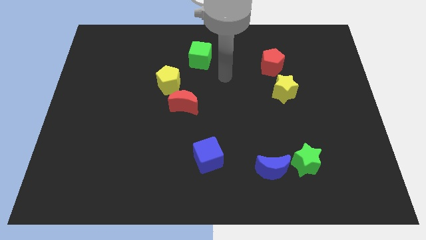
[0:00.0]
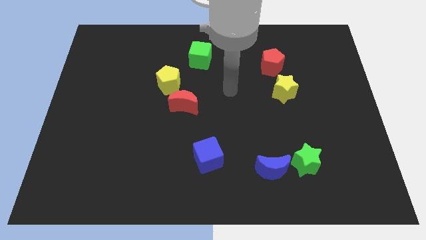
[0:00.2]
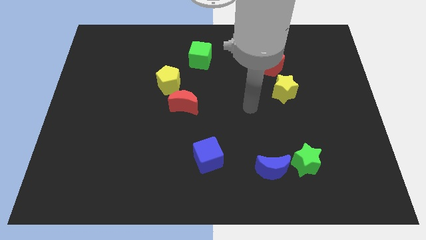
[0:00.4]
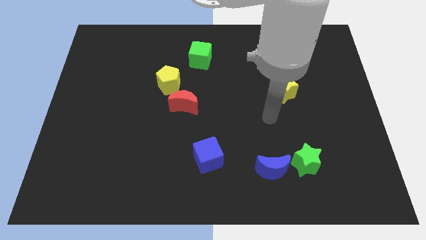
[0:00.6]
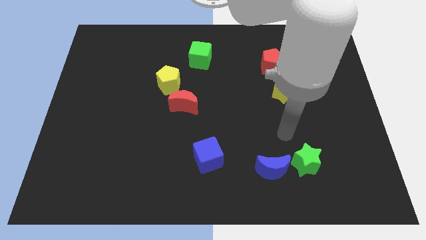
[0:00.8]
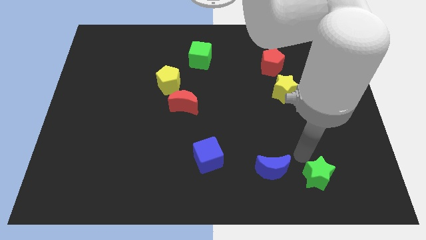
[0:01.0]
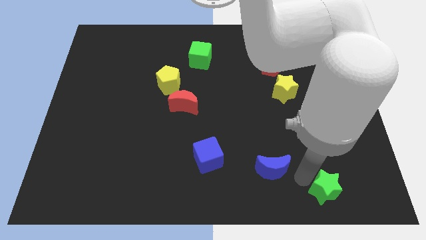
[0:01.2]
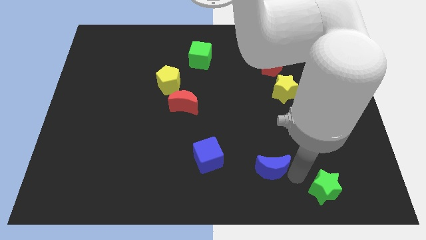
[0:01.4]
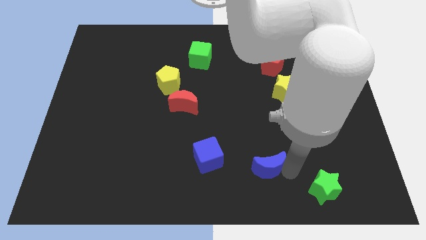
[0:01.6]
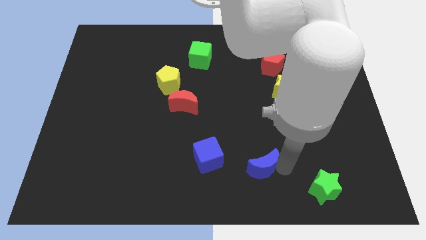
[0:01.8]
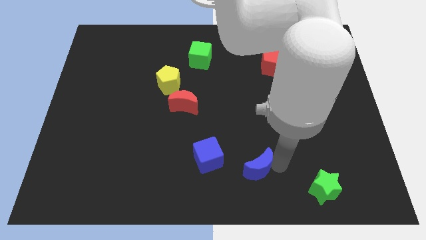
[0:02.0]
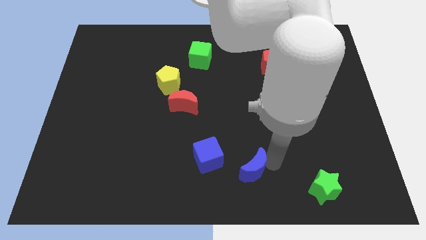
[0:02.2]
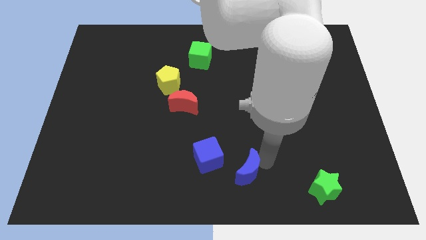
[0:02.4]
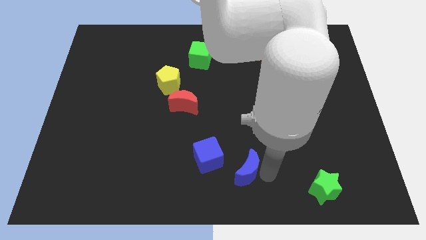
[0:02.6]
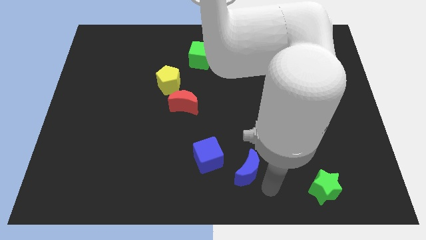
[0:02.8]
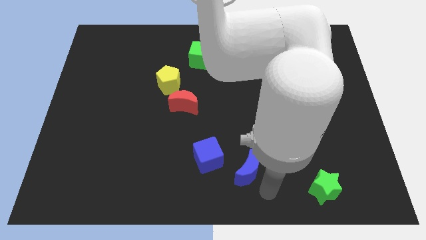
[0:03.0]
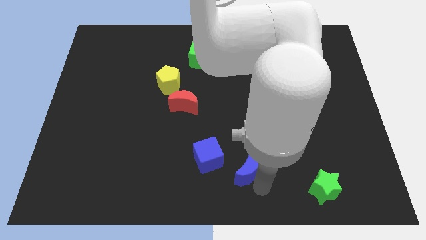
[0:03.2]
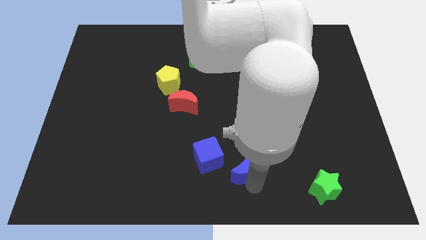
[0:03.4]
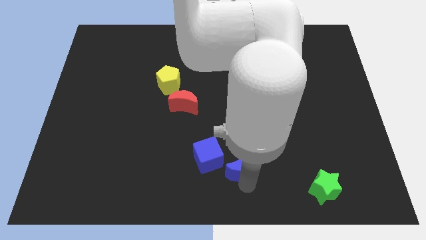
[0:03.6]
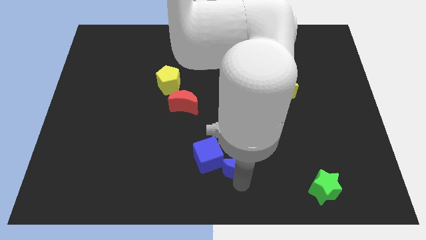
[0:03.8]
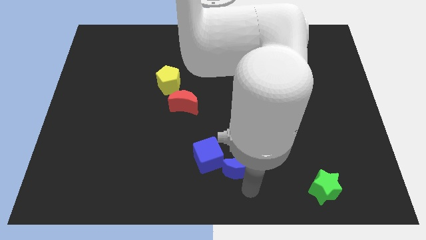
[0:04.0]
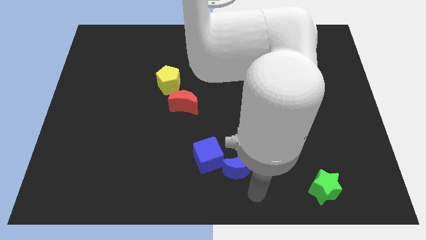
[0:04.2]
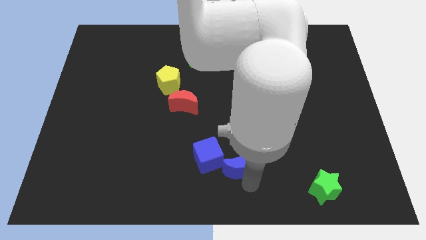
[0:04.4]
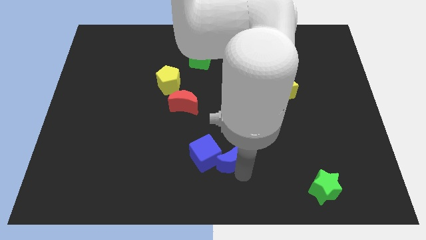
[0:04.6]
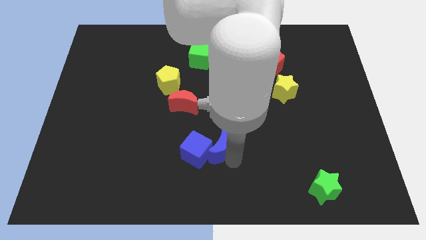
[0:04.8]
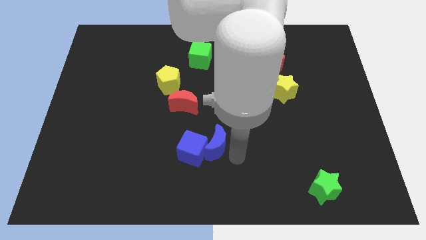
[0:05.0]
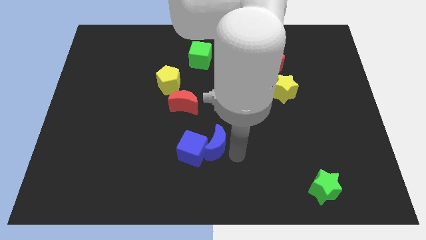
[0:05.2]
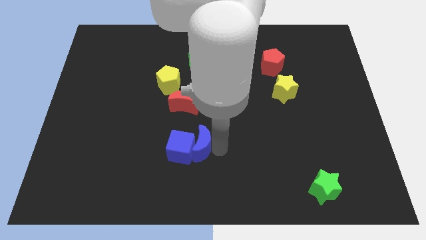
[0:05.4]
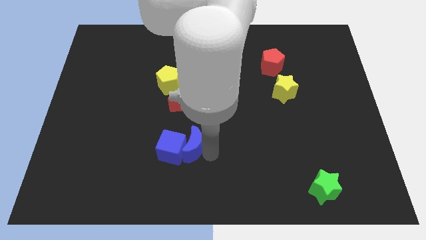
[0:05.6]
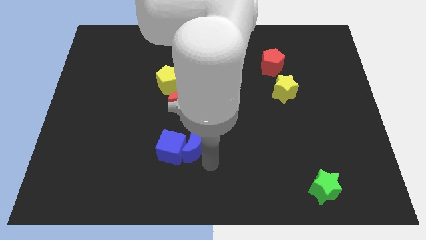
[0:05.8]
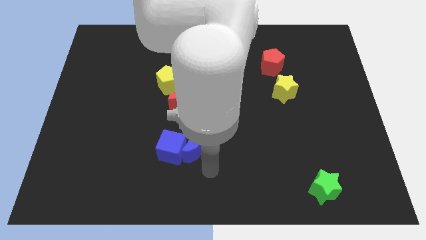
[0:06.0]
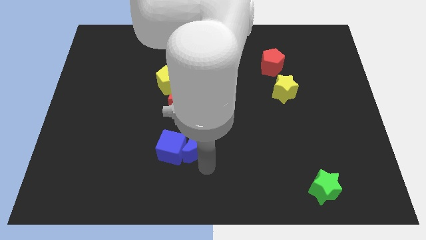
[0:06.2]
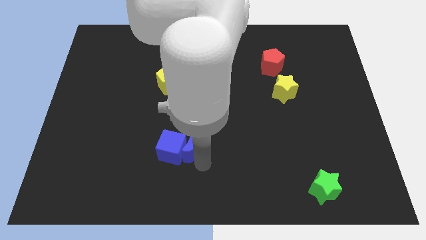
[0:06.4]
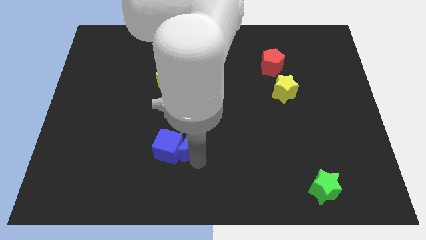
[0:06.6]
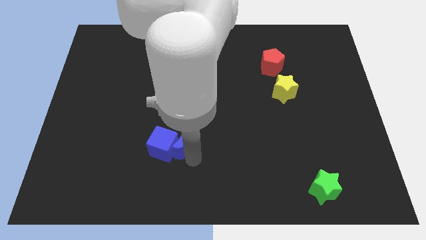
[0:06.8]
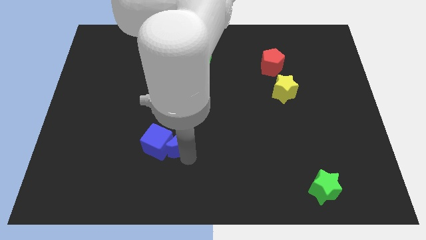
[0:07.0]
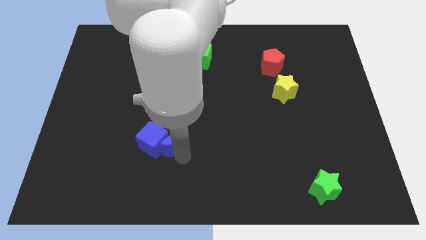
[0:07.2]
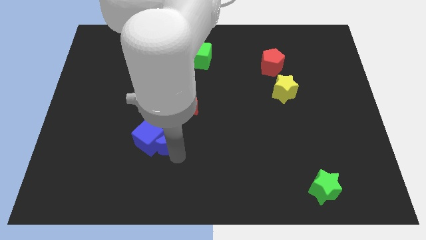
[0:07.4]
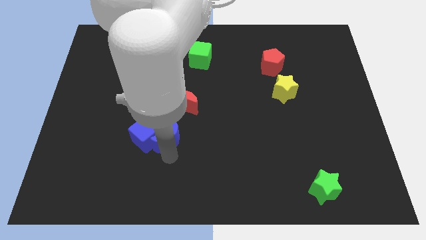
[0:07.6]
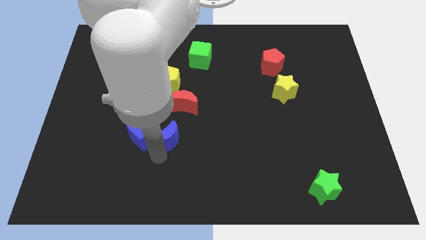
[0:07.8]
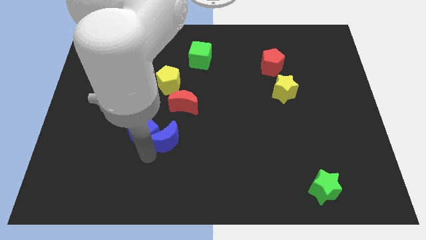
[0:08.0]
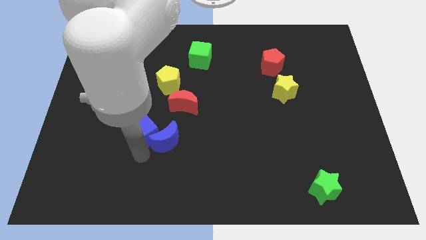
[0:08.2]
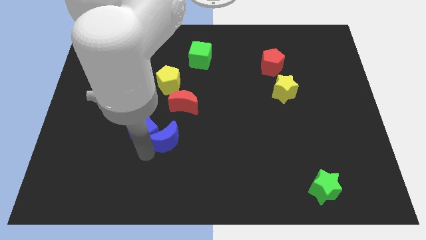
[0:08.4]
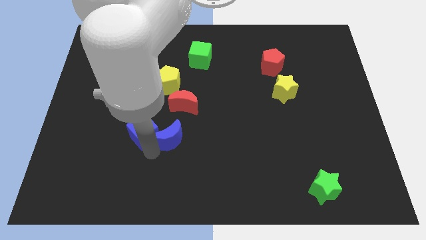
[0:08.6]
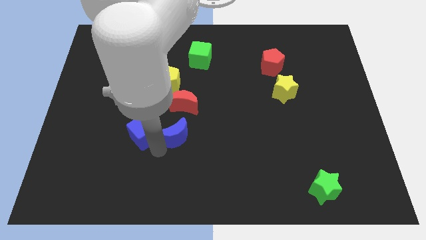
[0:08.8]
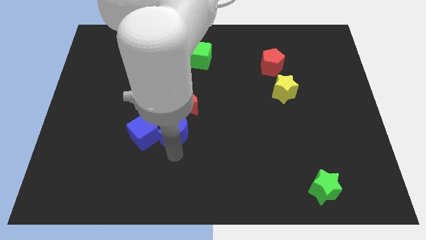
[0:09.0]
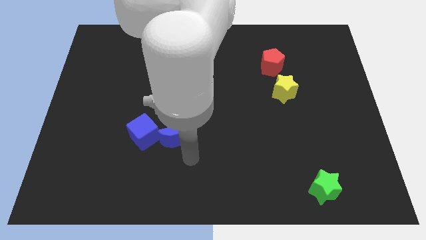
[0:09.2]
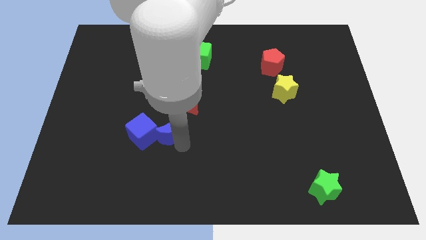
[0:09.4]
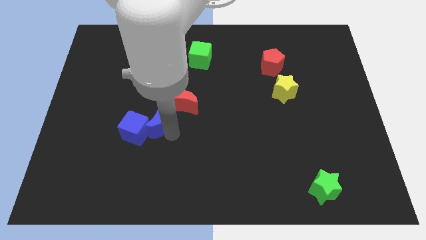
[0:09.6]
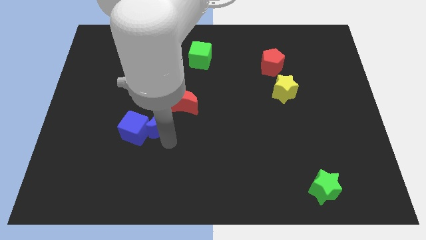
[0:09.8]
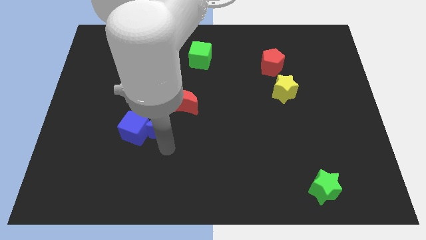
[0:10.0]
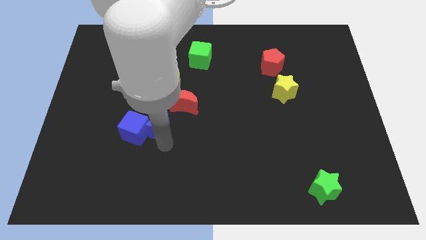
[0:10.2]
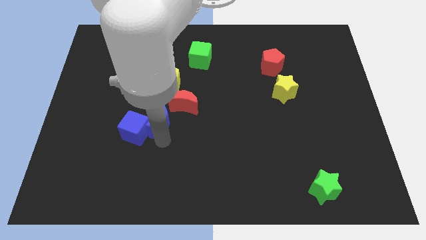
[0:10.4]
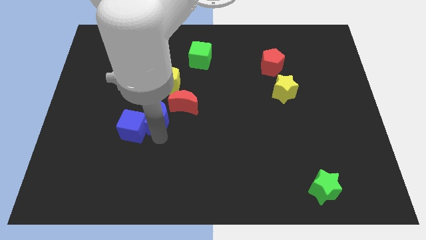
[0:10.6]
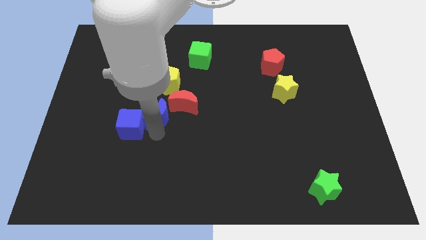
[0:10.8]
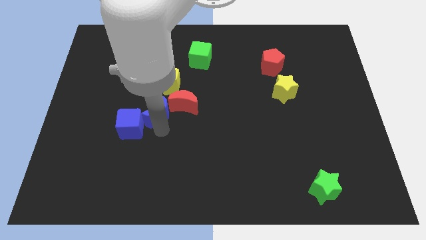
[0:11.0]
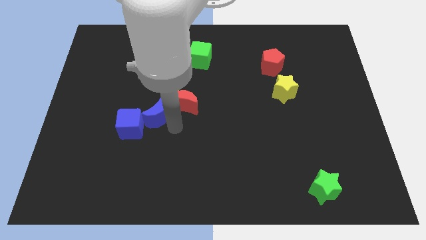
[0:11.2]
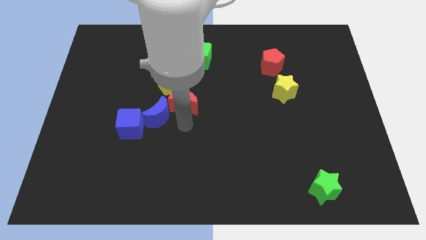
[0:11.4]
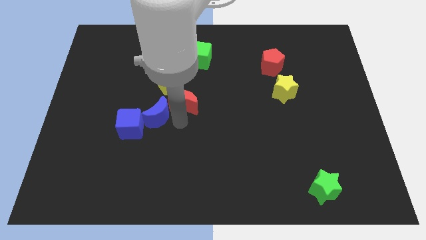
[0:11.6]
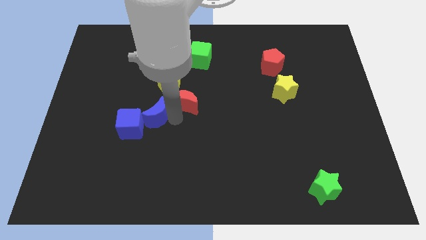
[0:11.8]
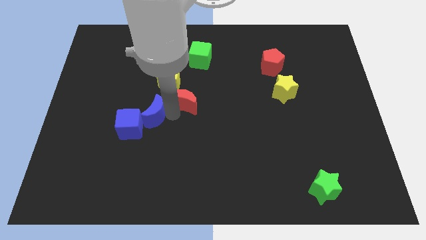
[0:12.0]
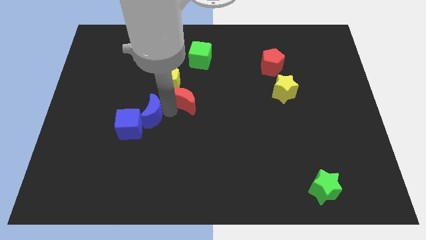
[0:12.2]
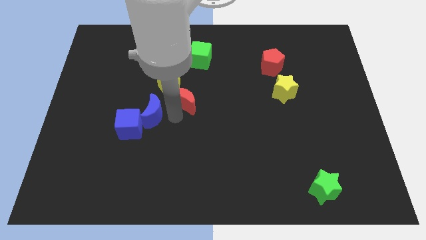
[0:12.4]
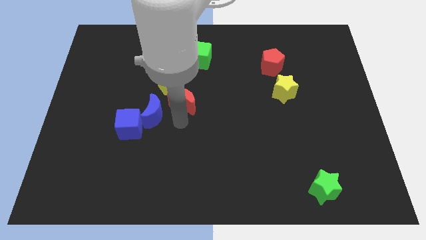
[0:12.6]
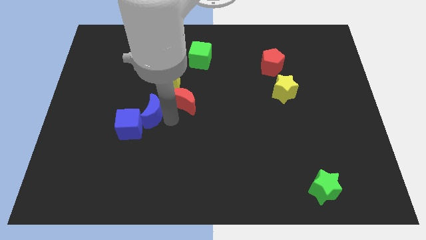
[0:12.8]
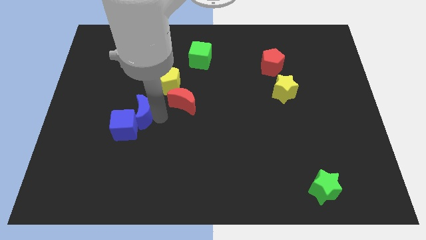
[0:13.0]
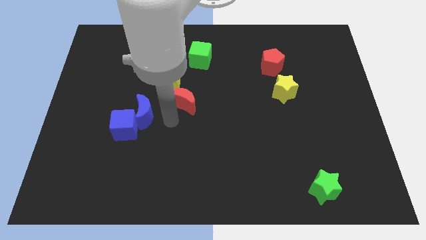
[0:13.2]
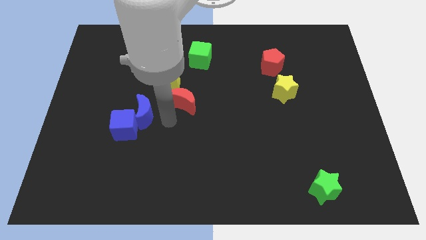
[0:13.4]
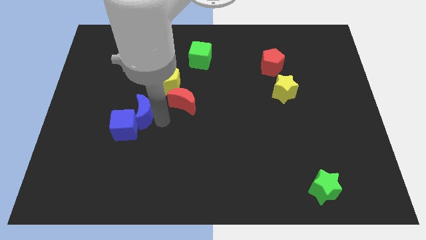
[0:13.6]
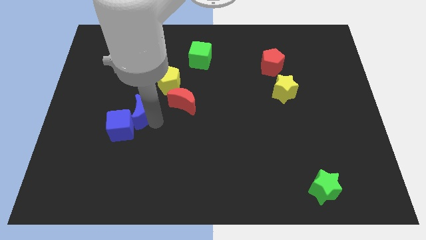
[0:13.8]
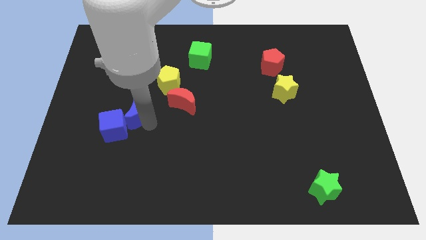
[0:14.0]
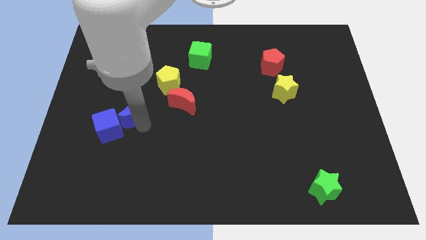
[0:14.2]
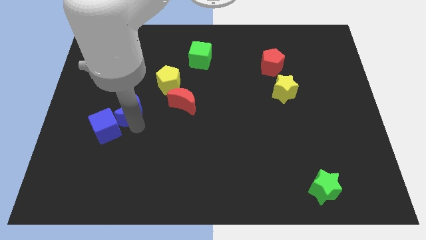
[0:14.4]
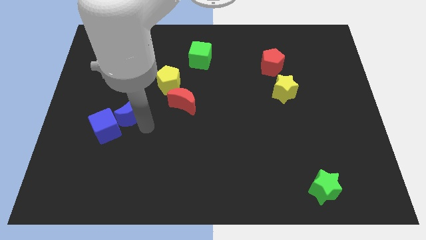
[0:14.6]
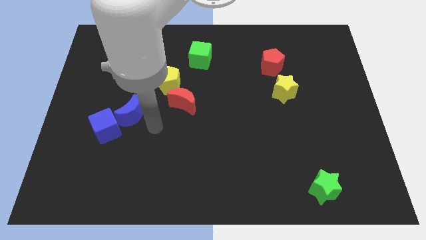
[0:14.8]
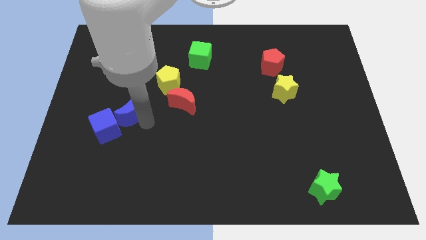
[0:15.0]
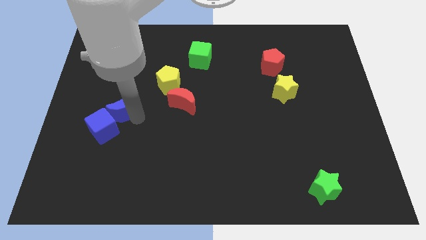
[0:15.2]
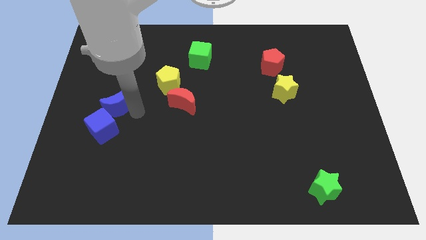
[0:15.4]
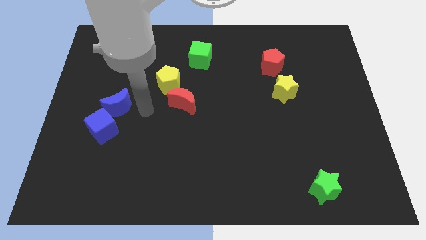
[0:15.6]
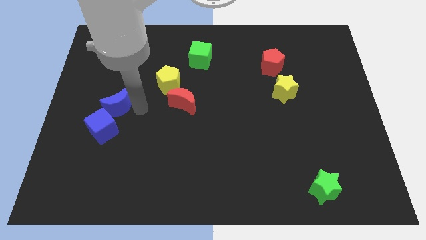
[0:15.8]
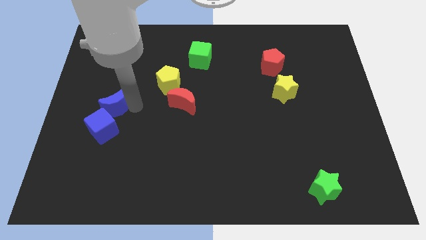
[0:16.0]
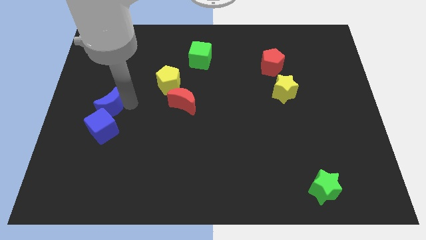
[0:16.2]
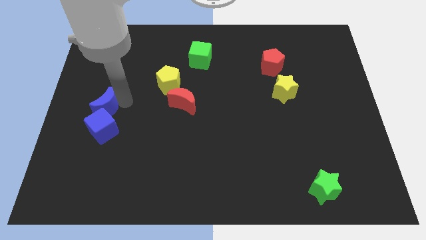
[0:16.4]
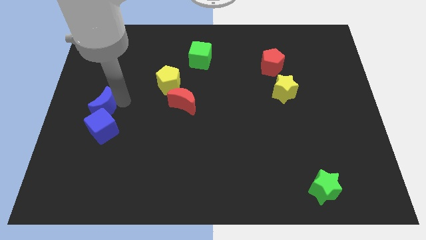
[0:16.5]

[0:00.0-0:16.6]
push the blue moon to the center left
